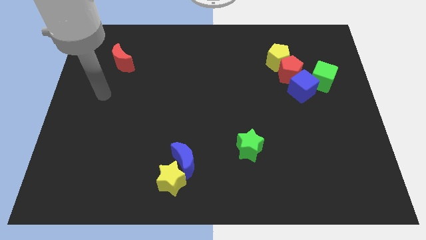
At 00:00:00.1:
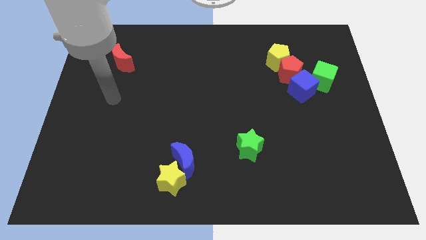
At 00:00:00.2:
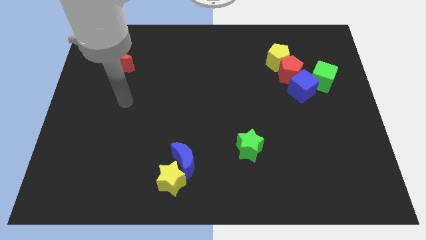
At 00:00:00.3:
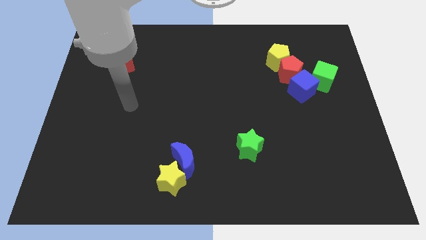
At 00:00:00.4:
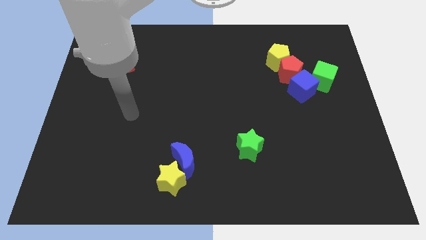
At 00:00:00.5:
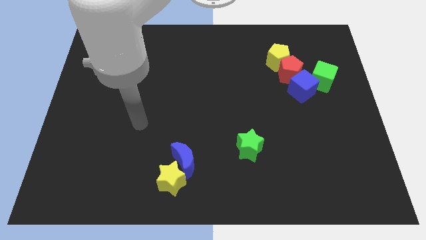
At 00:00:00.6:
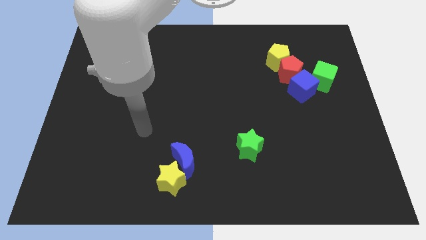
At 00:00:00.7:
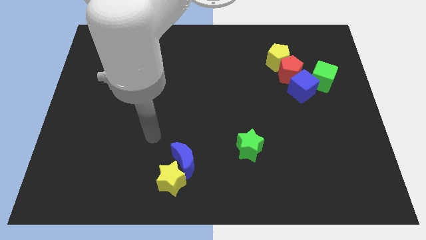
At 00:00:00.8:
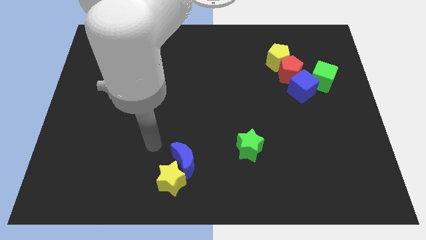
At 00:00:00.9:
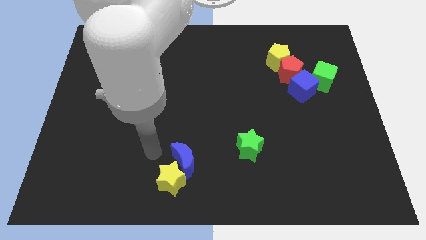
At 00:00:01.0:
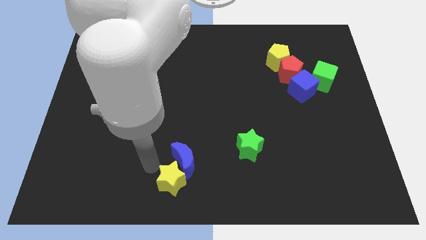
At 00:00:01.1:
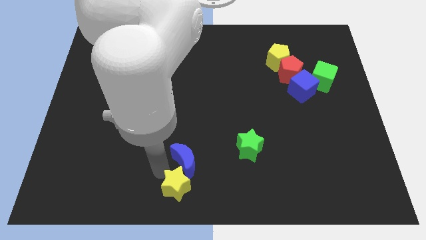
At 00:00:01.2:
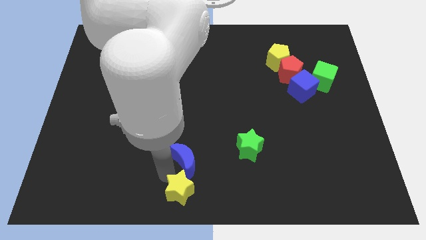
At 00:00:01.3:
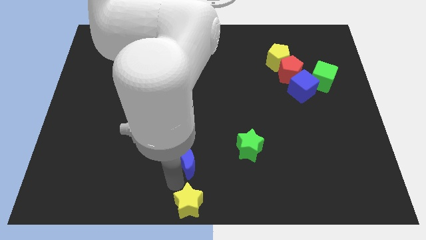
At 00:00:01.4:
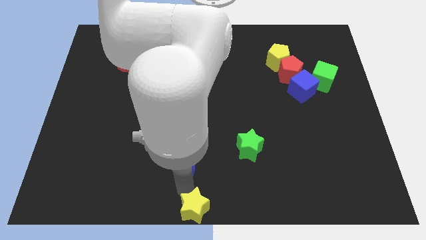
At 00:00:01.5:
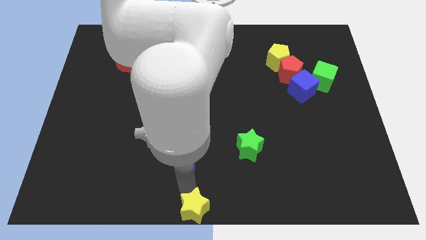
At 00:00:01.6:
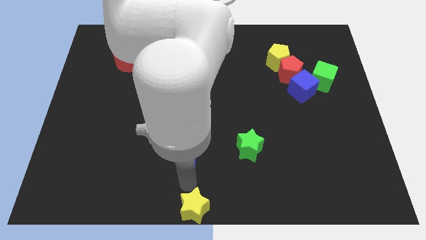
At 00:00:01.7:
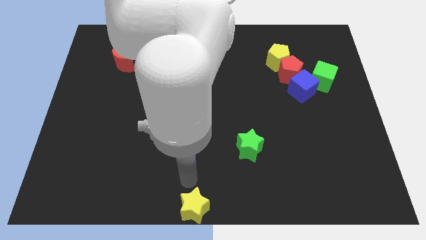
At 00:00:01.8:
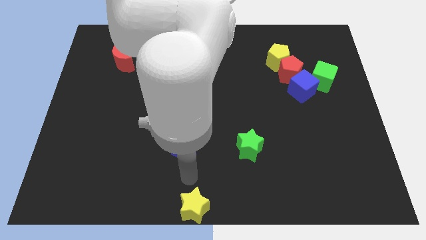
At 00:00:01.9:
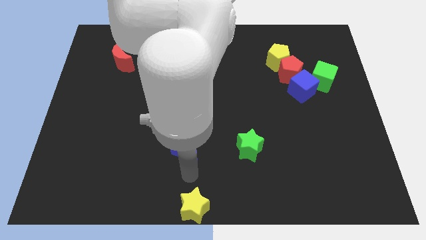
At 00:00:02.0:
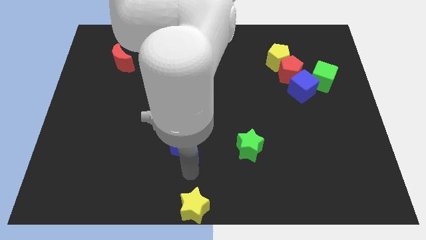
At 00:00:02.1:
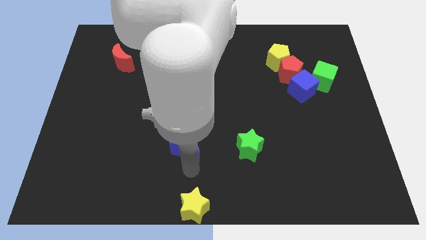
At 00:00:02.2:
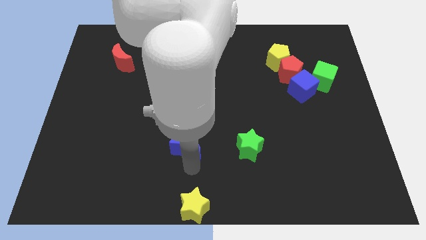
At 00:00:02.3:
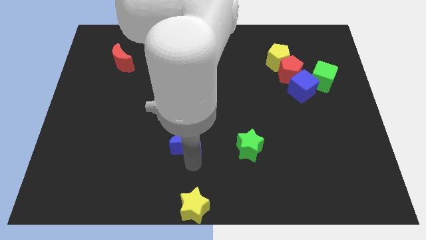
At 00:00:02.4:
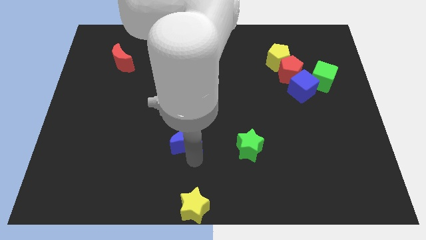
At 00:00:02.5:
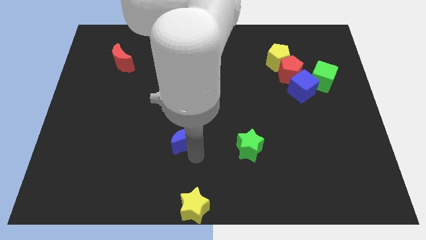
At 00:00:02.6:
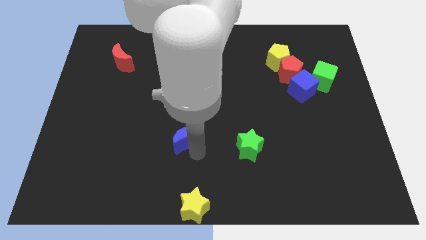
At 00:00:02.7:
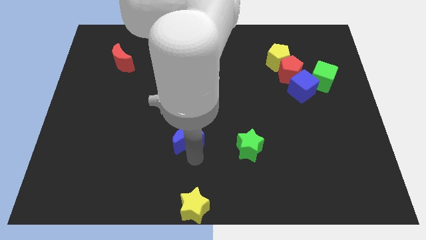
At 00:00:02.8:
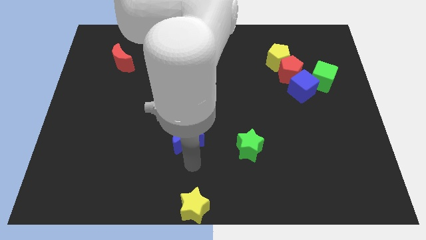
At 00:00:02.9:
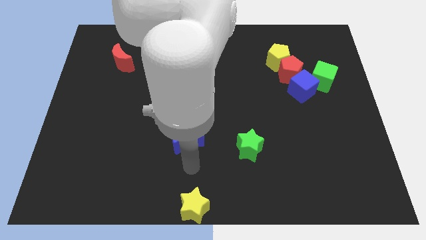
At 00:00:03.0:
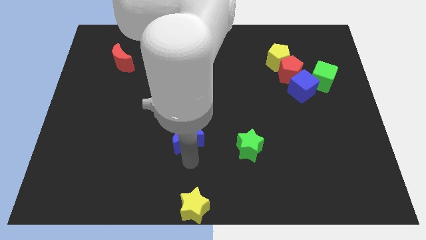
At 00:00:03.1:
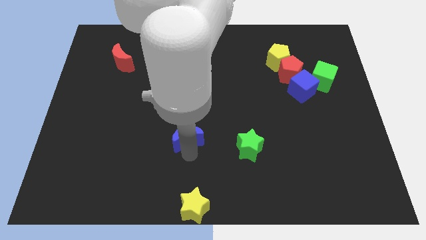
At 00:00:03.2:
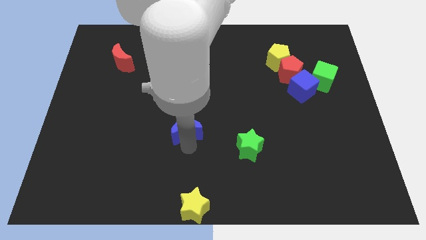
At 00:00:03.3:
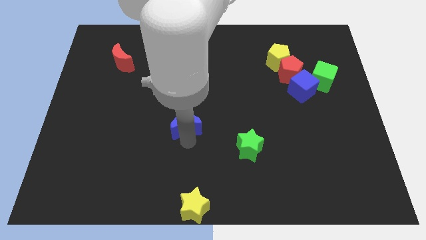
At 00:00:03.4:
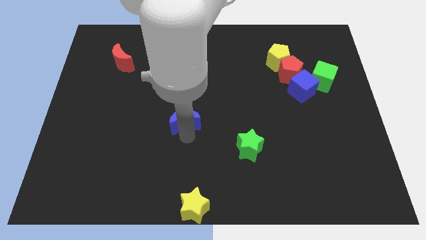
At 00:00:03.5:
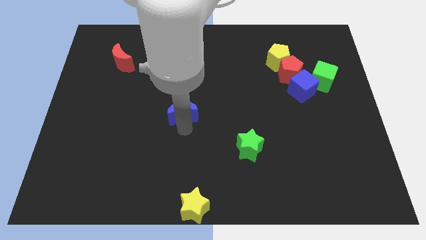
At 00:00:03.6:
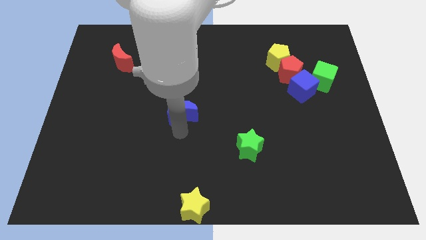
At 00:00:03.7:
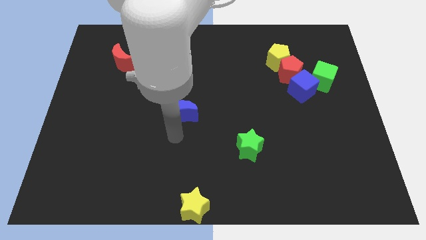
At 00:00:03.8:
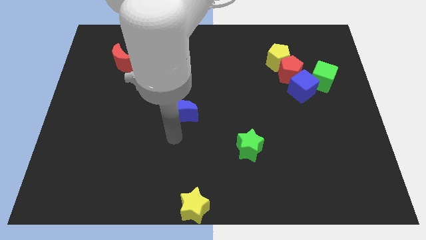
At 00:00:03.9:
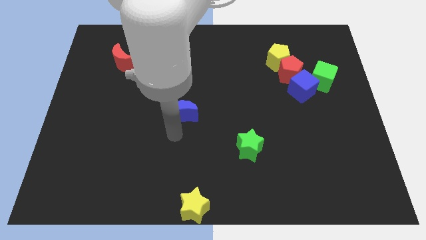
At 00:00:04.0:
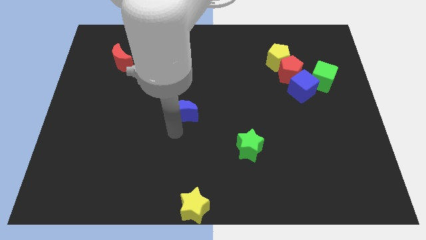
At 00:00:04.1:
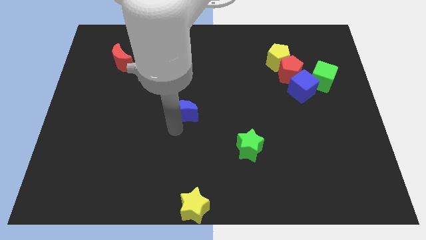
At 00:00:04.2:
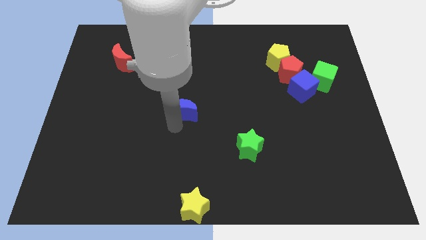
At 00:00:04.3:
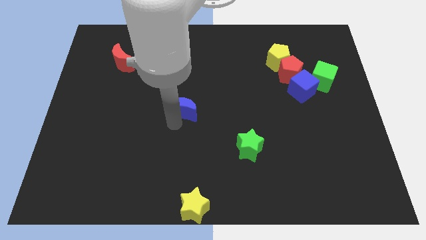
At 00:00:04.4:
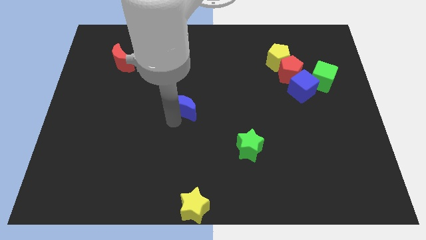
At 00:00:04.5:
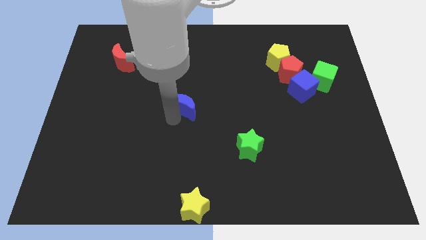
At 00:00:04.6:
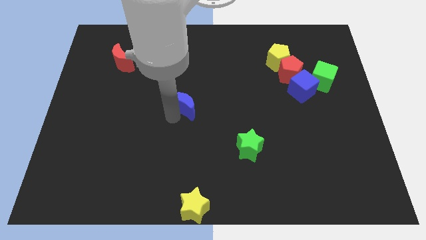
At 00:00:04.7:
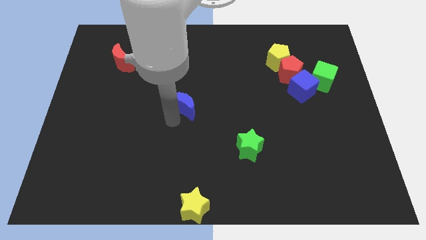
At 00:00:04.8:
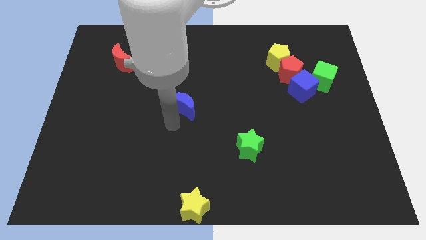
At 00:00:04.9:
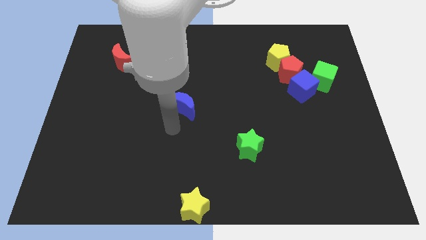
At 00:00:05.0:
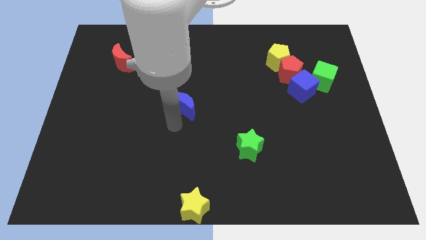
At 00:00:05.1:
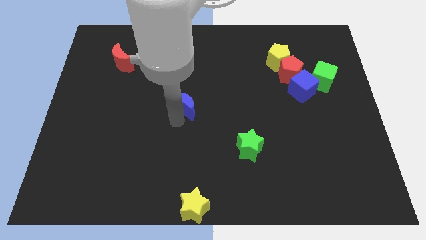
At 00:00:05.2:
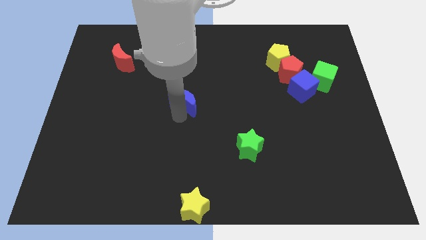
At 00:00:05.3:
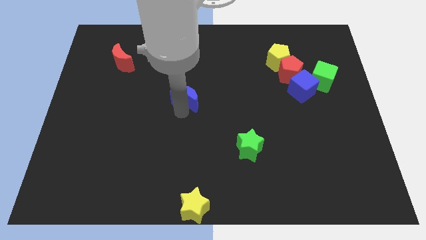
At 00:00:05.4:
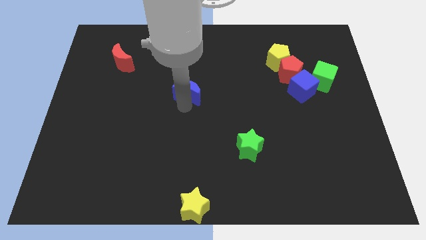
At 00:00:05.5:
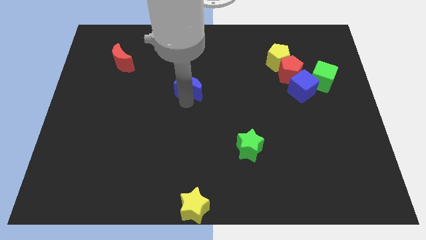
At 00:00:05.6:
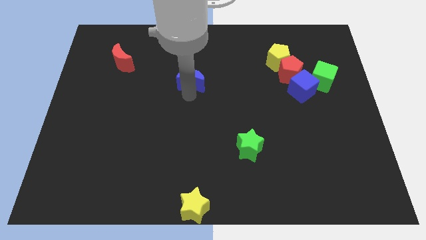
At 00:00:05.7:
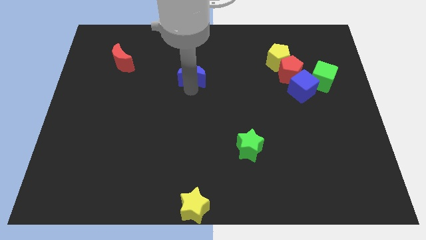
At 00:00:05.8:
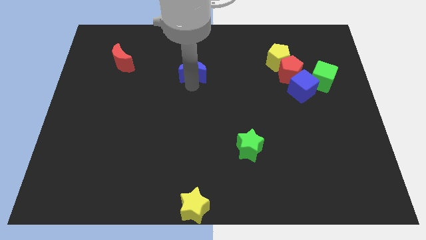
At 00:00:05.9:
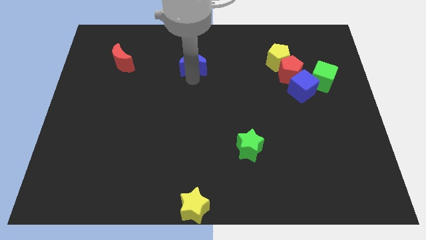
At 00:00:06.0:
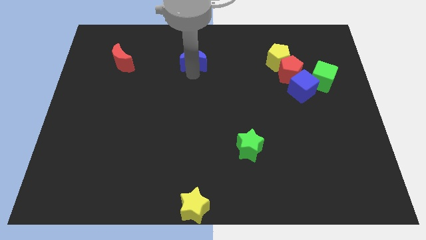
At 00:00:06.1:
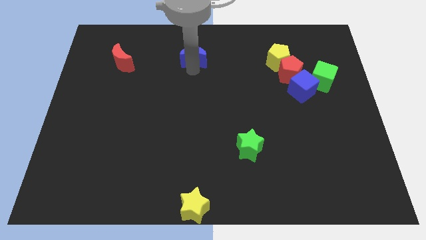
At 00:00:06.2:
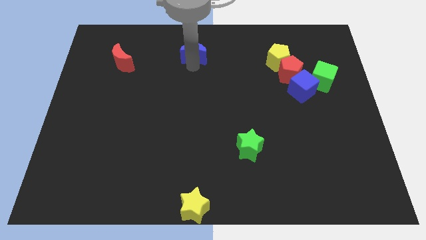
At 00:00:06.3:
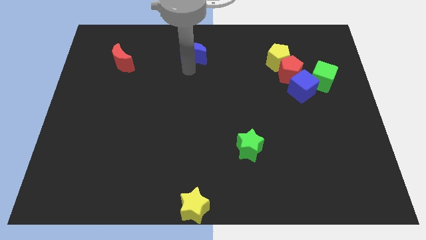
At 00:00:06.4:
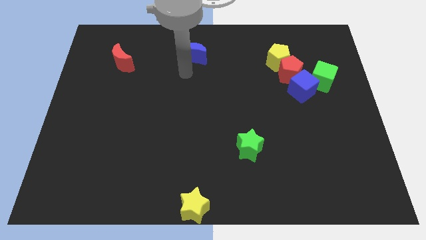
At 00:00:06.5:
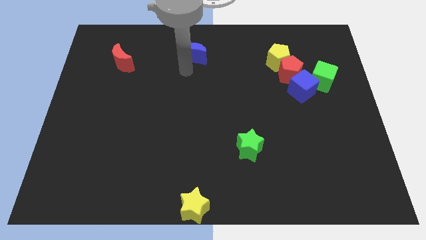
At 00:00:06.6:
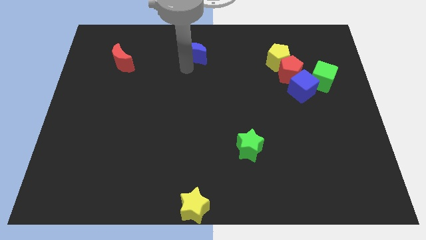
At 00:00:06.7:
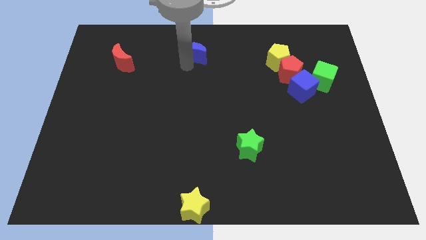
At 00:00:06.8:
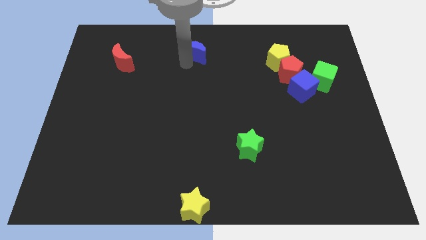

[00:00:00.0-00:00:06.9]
put the blue moon to the top side
